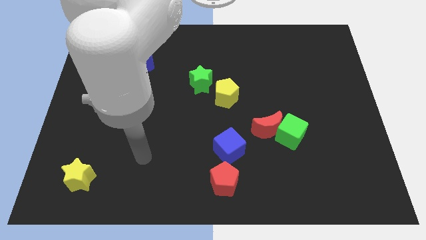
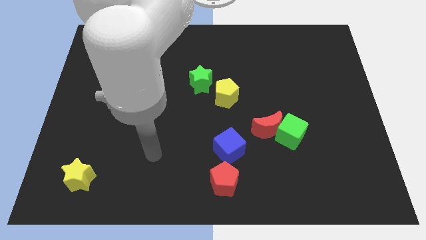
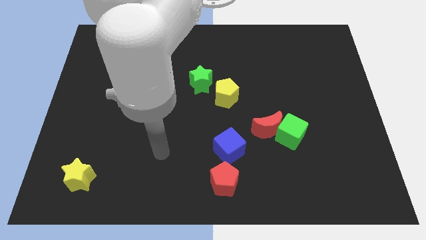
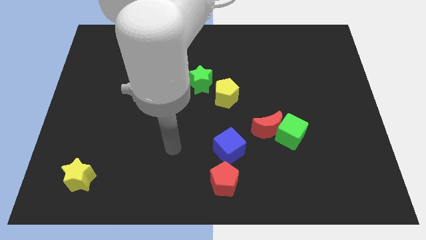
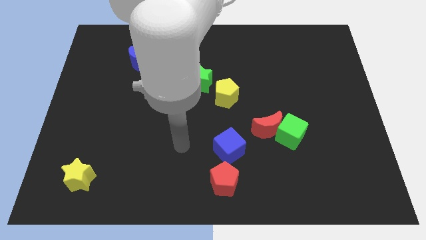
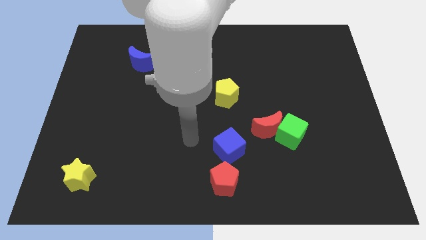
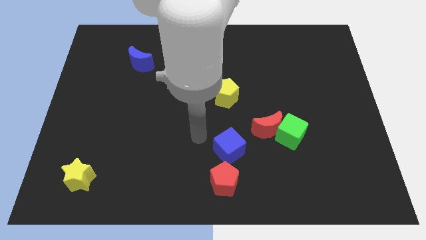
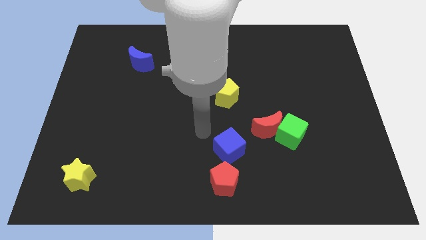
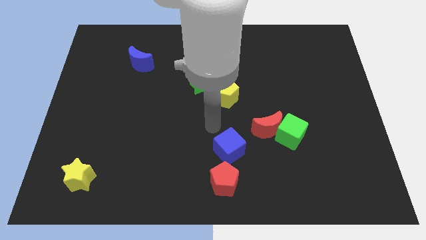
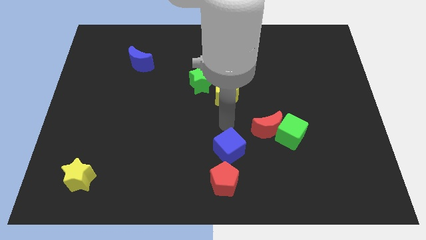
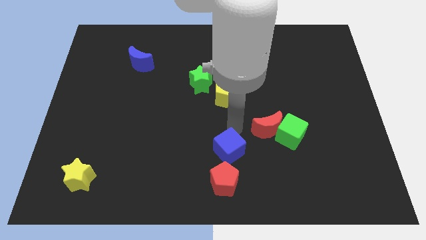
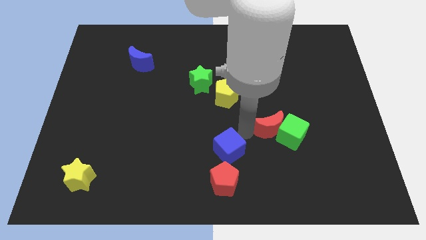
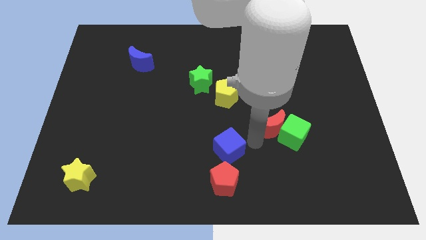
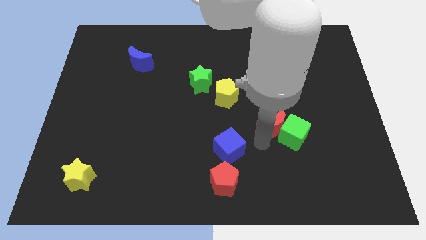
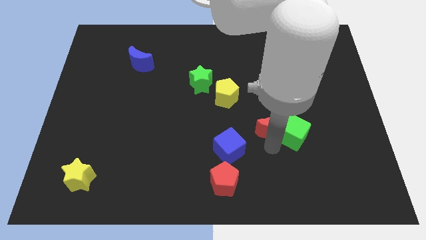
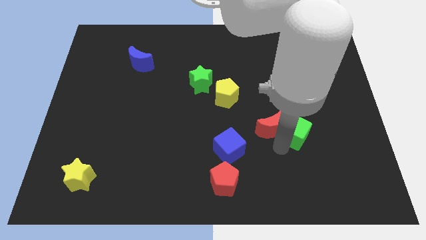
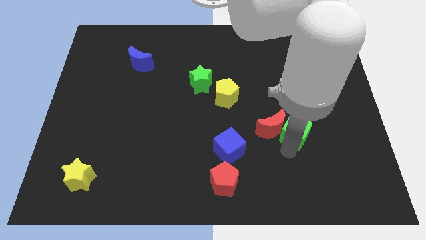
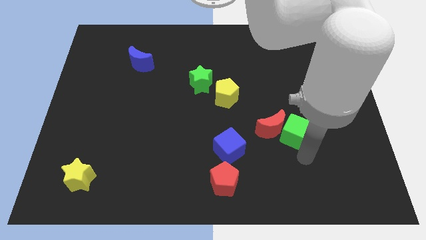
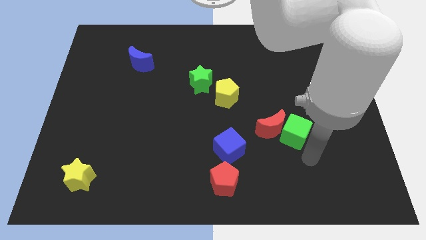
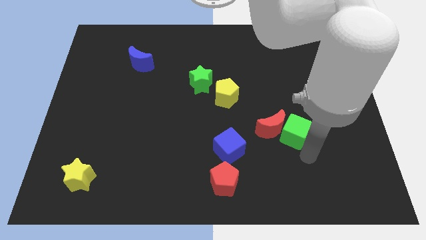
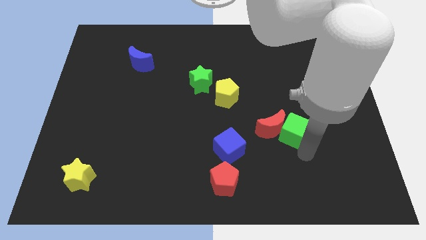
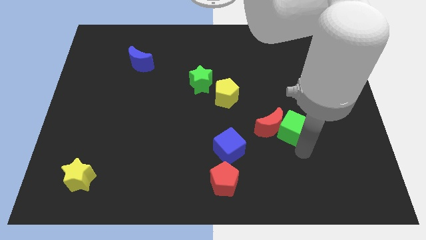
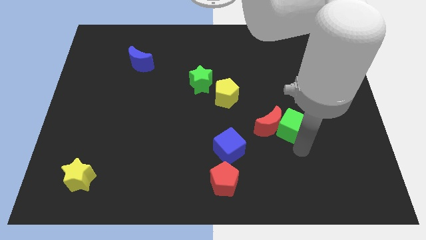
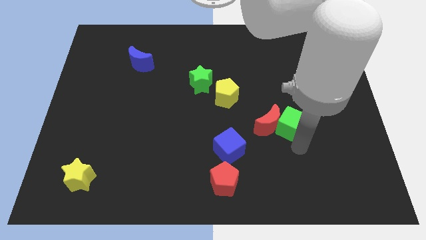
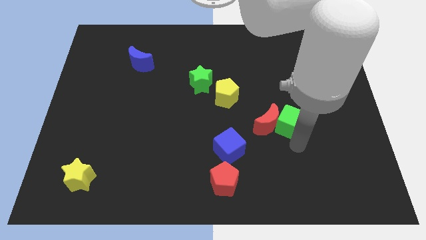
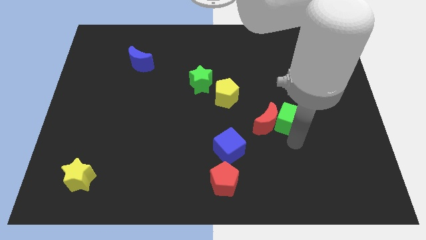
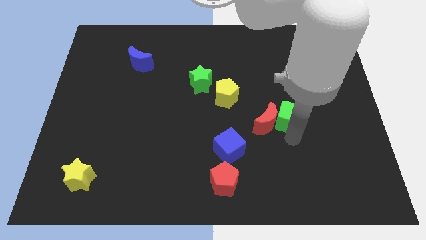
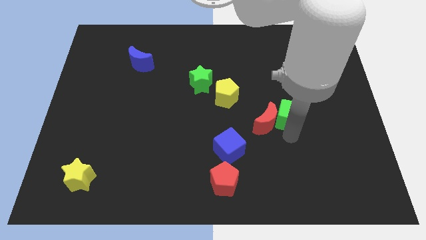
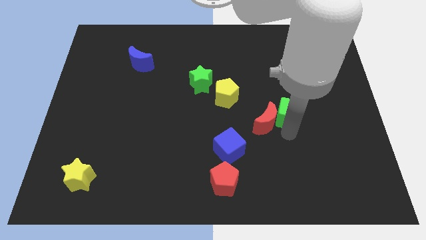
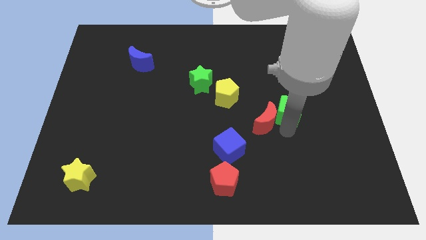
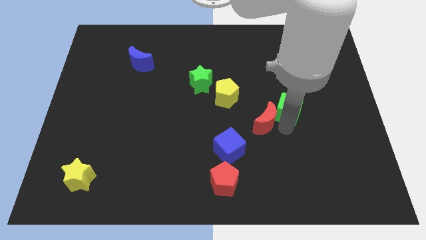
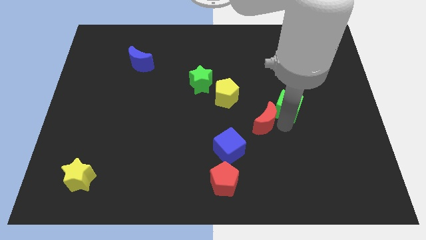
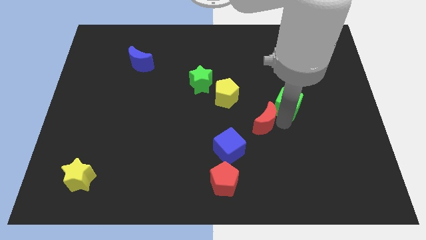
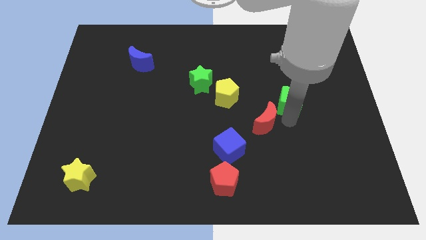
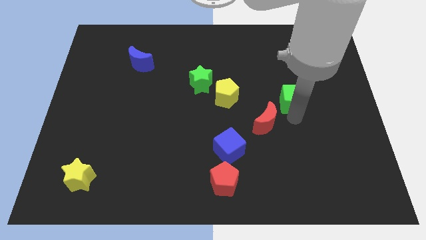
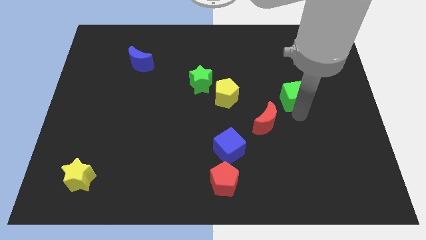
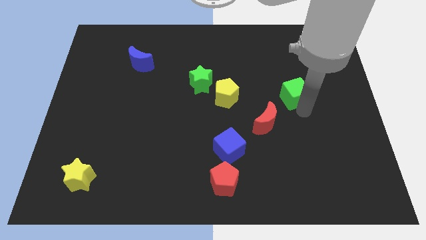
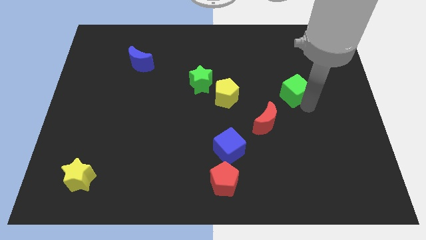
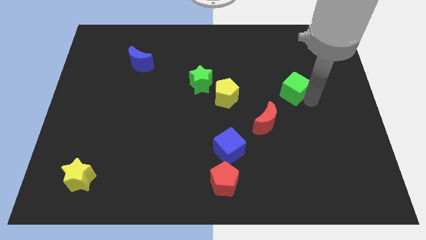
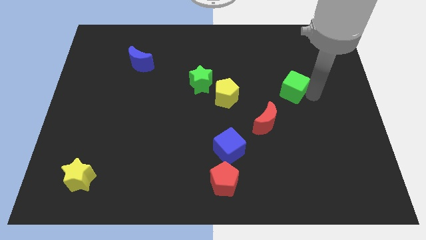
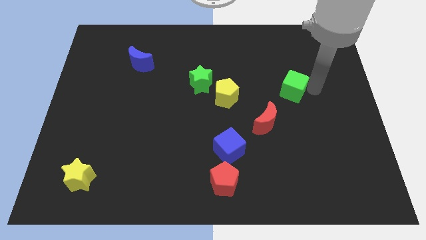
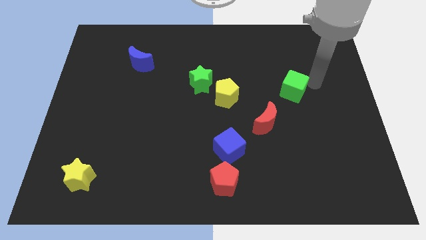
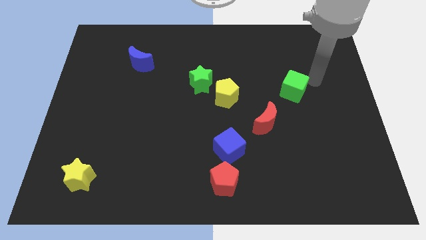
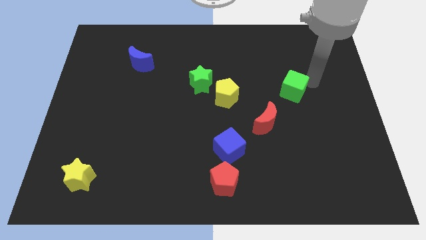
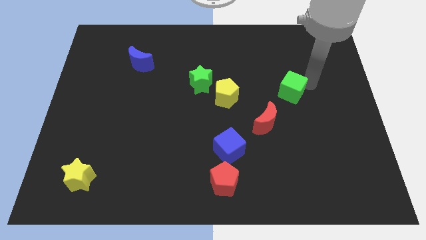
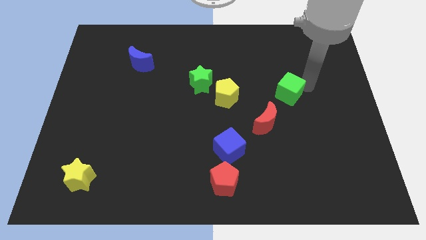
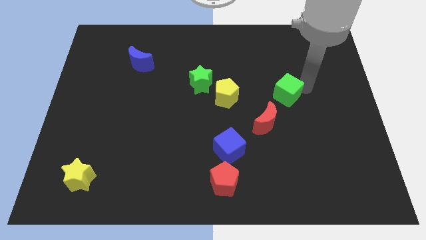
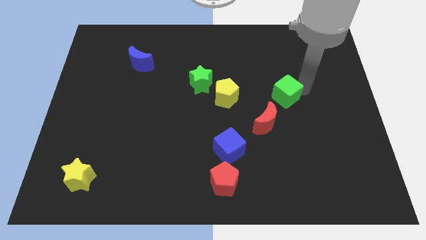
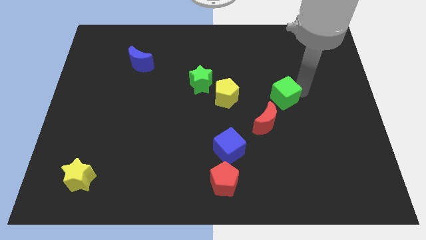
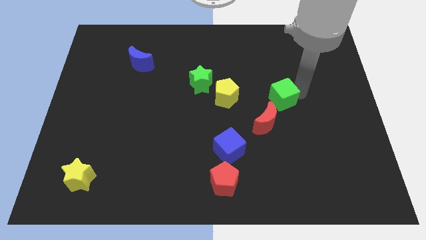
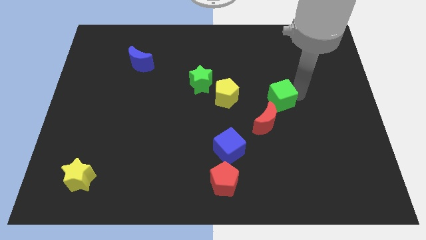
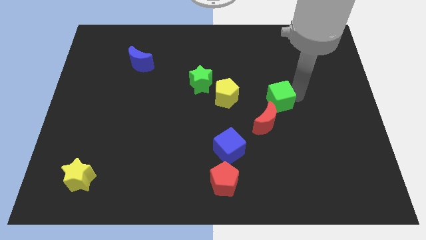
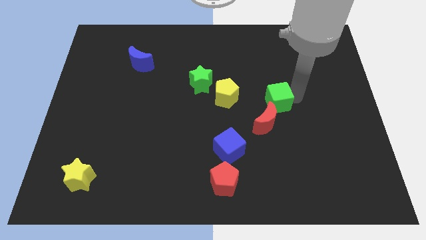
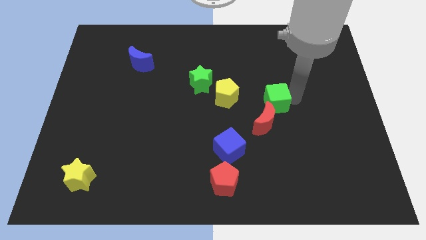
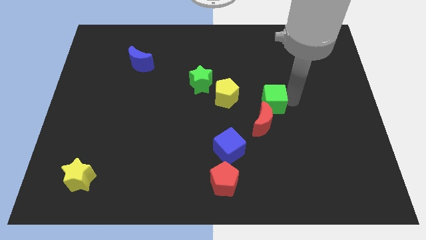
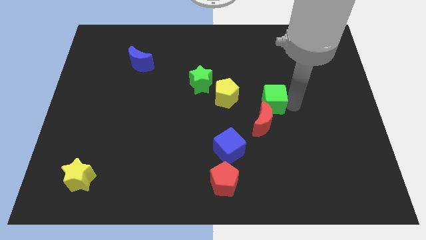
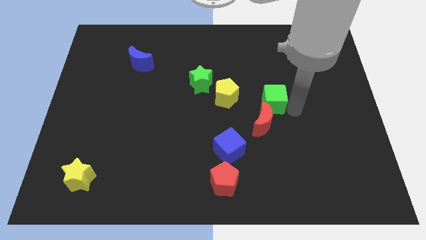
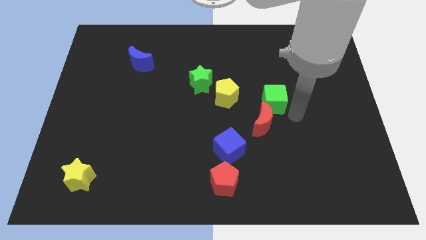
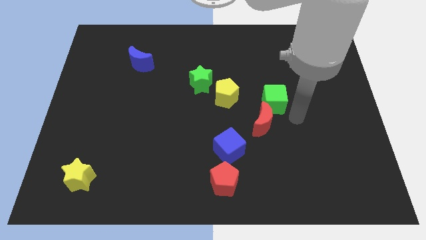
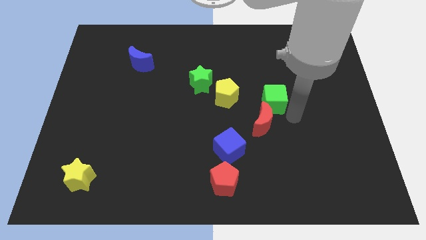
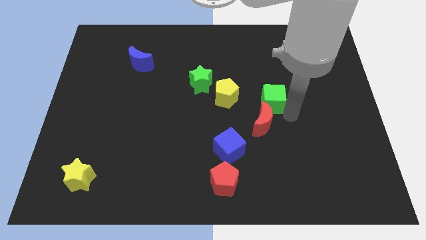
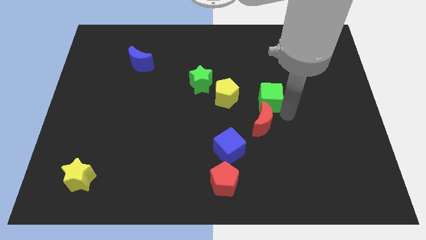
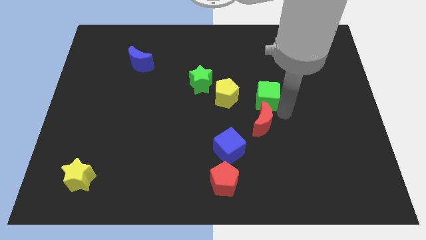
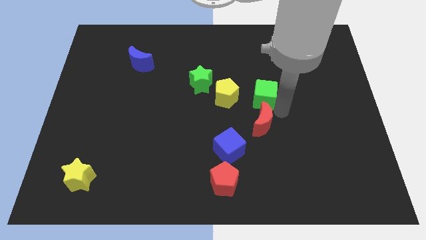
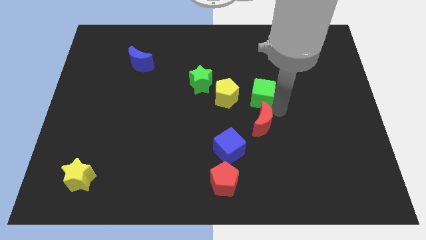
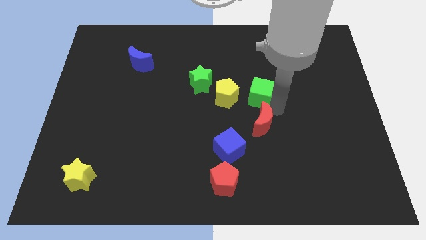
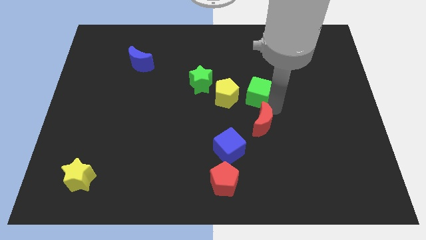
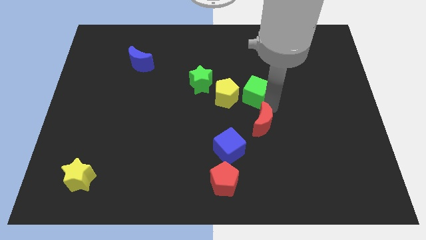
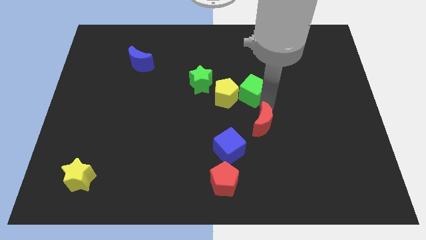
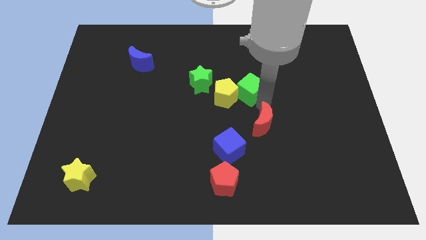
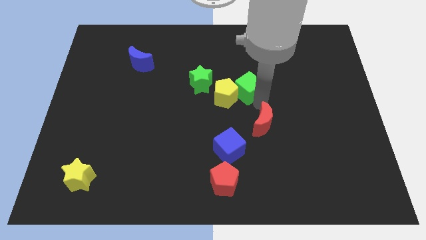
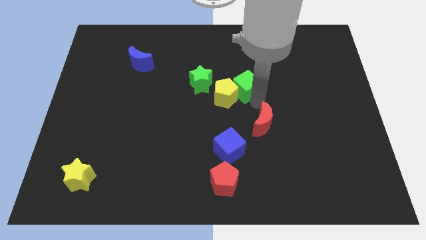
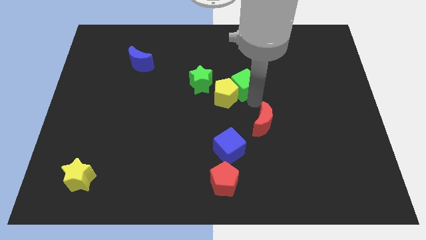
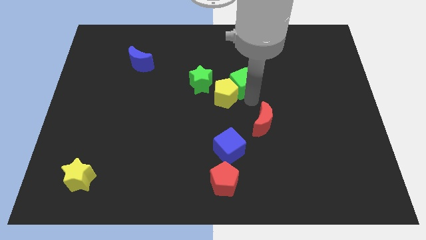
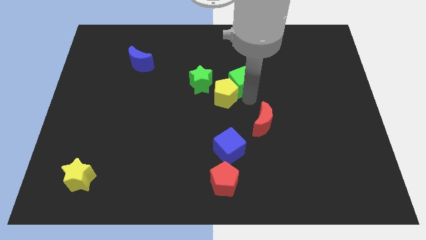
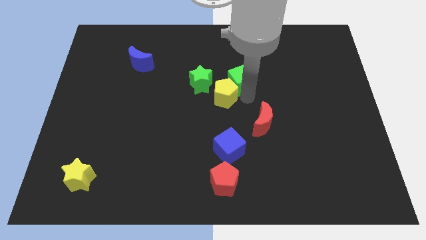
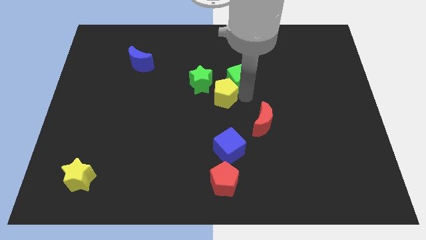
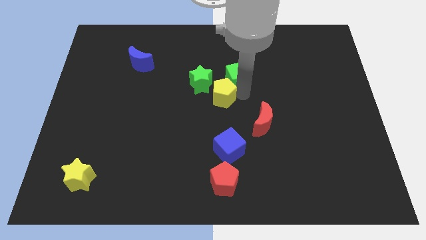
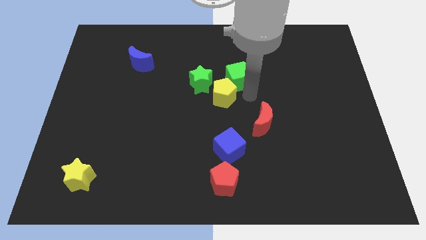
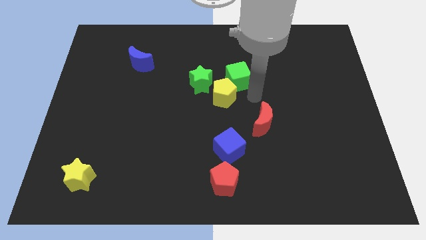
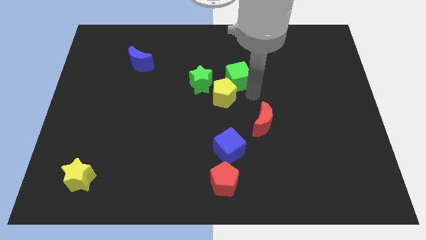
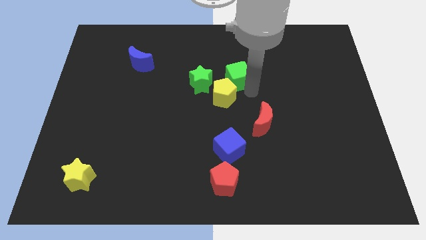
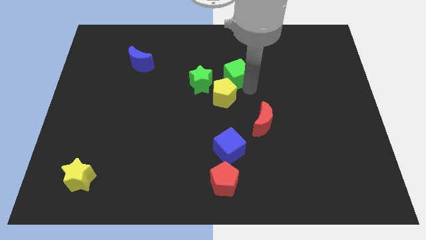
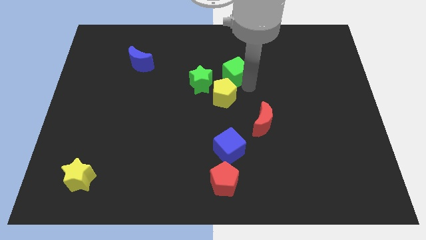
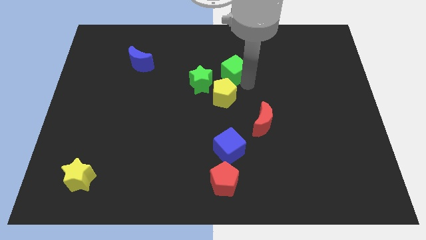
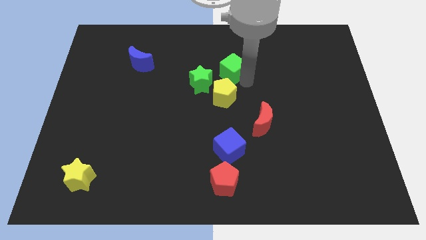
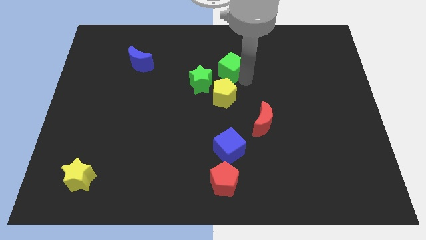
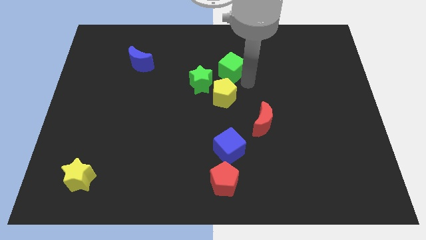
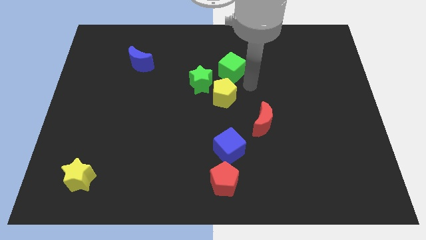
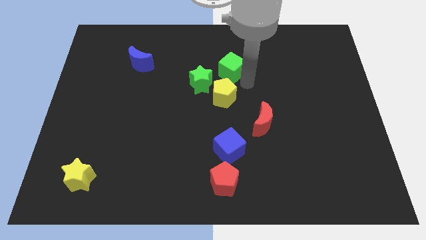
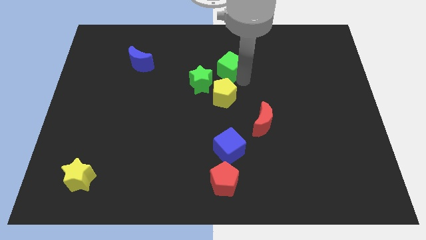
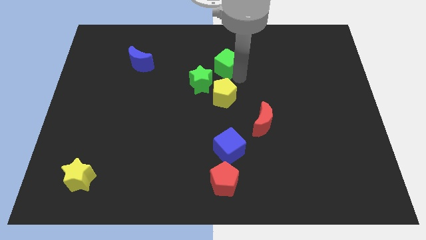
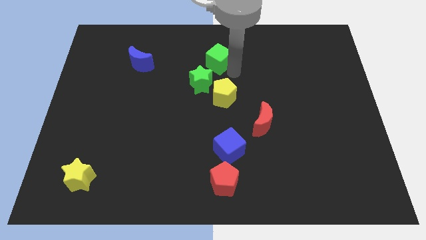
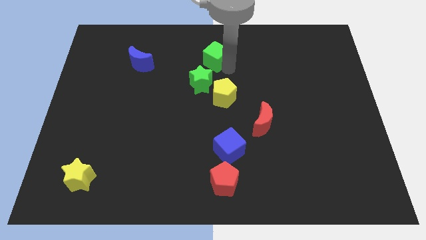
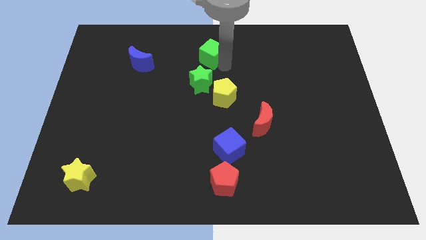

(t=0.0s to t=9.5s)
put the green cube to the towards your base
